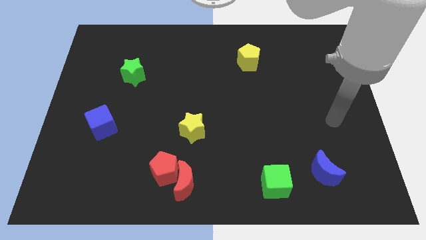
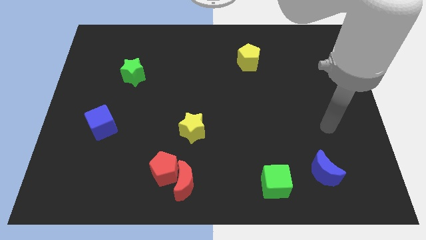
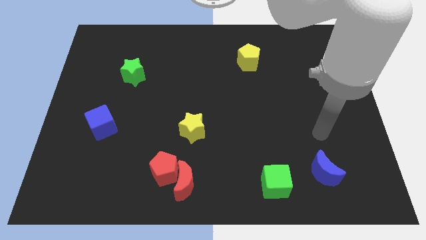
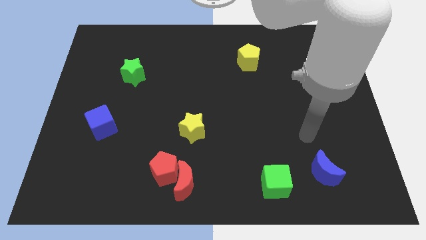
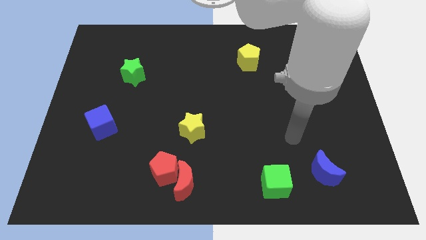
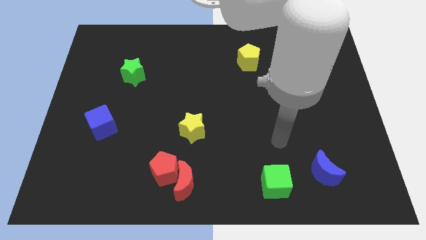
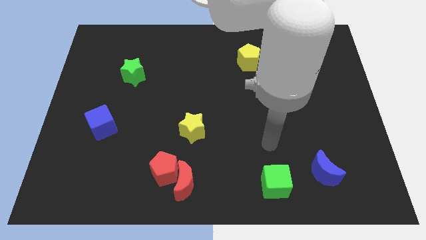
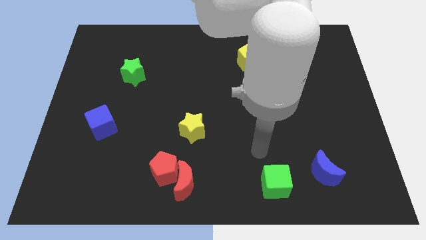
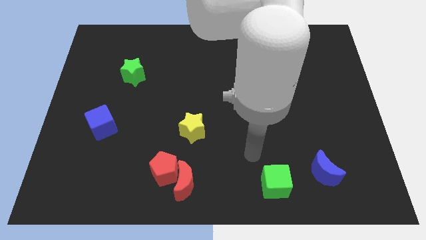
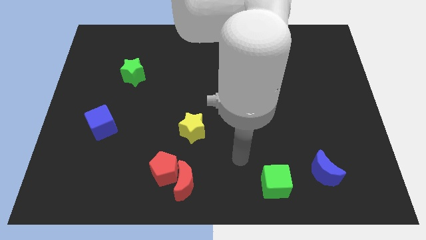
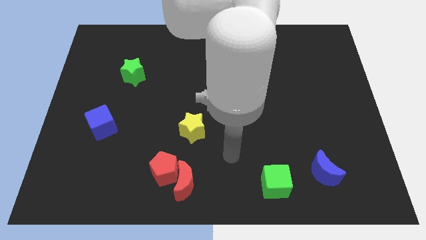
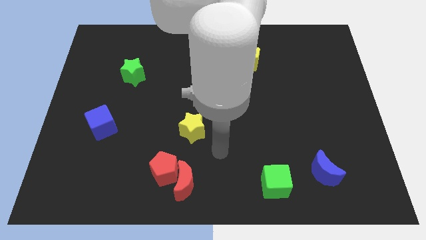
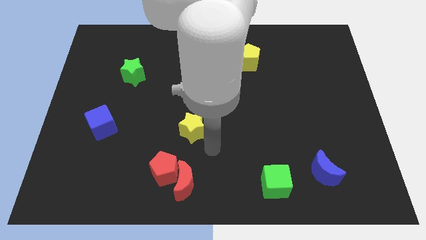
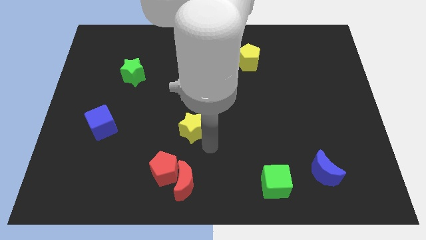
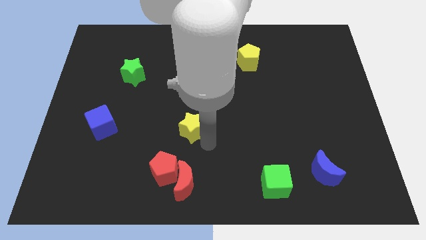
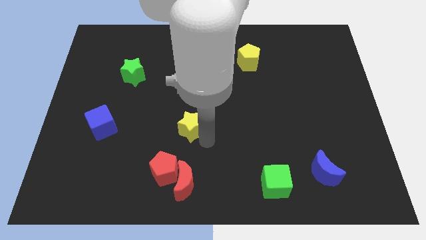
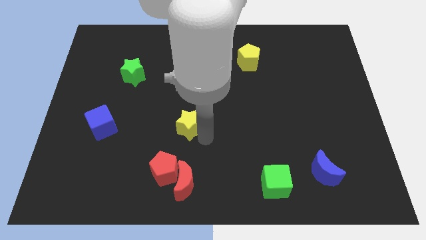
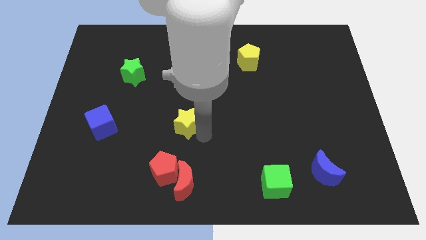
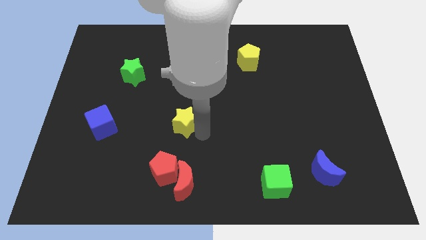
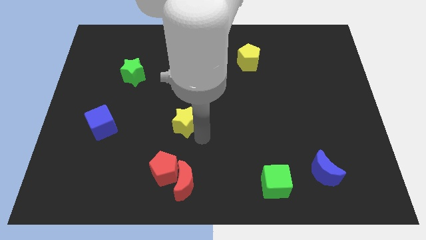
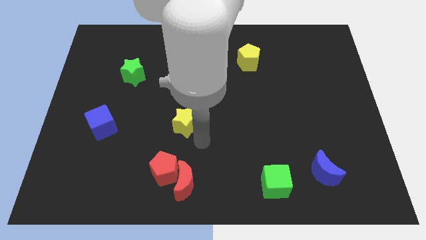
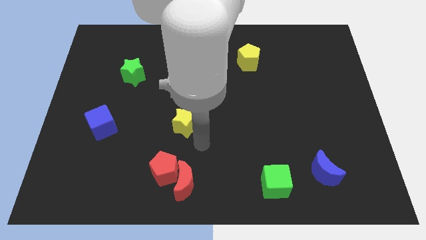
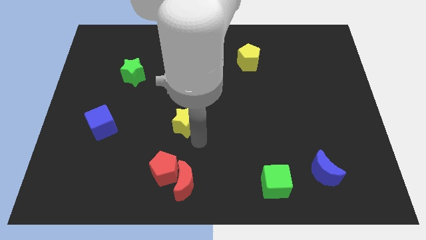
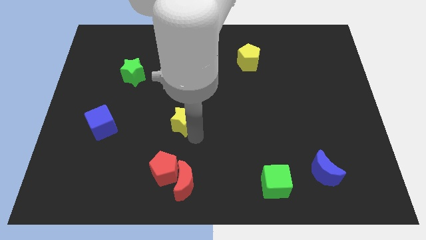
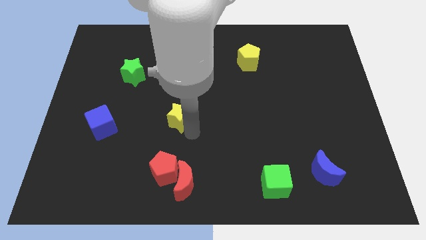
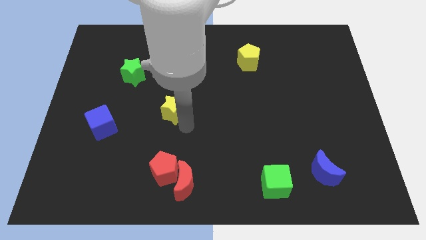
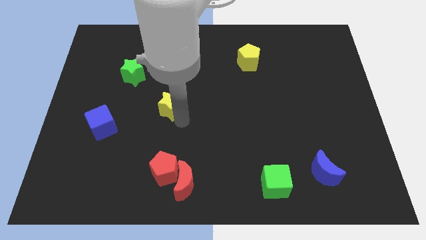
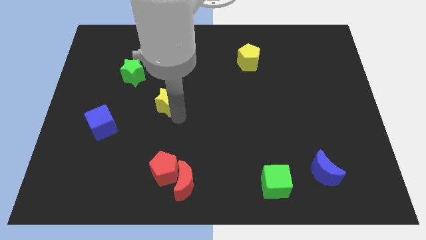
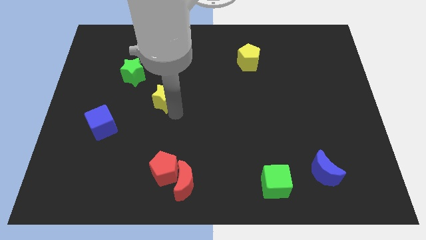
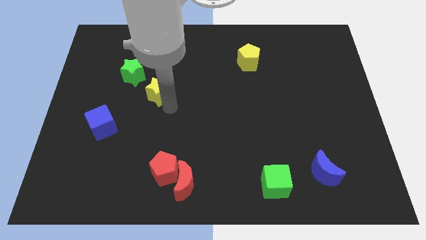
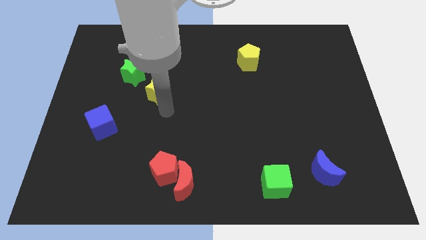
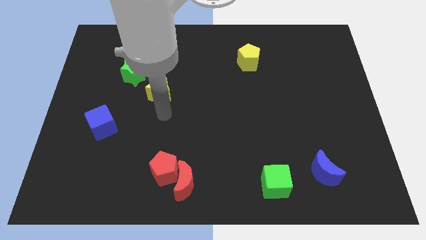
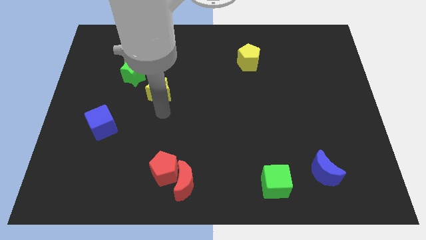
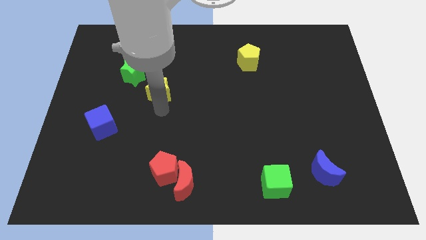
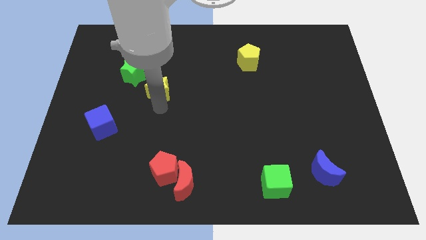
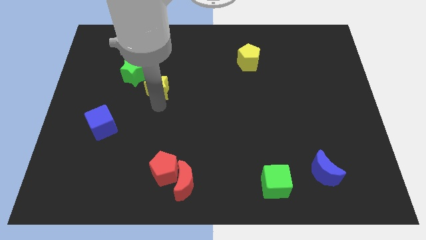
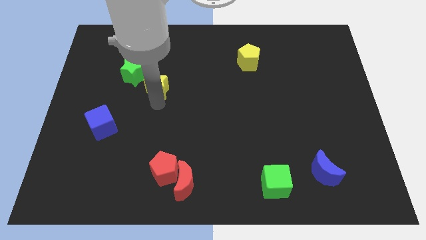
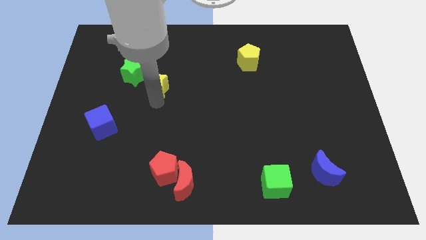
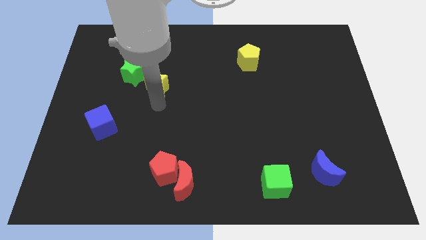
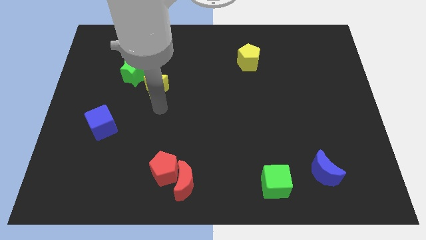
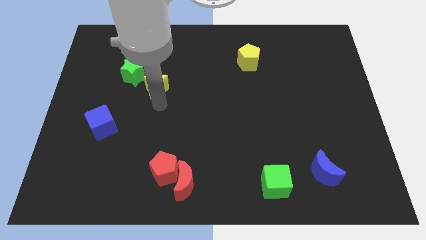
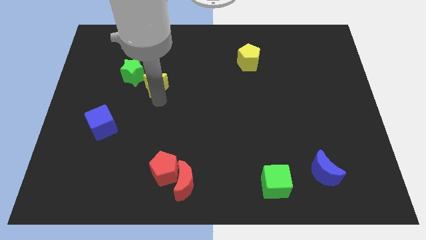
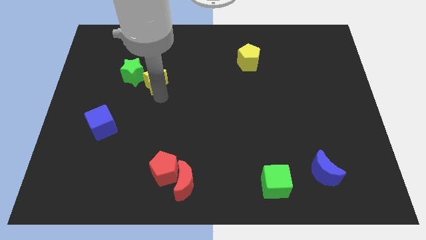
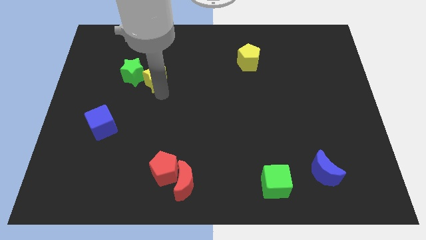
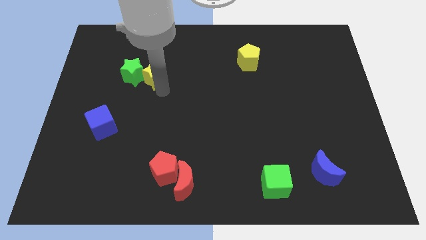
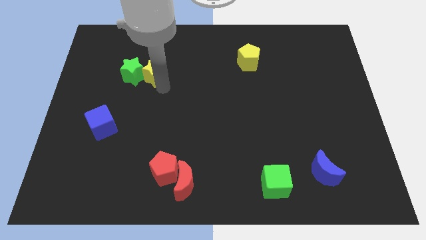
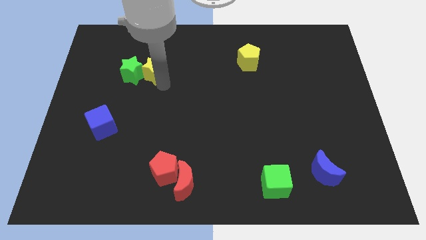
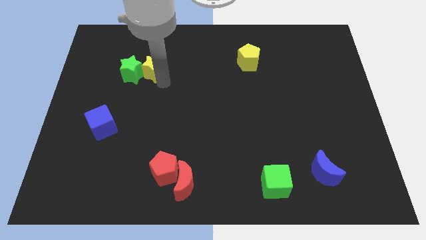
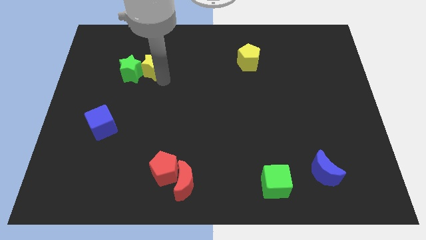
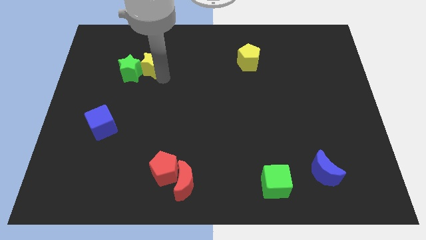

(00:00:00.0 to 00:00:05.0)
push the yellow star diagonally up and to the left

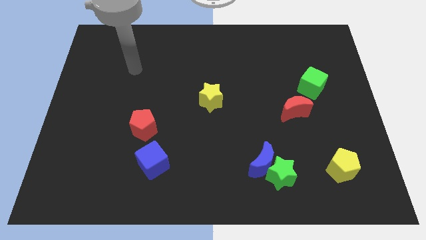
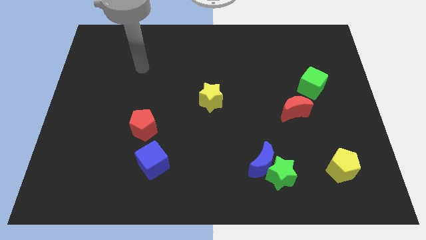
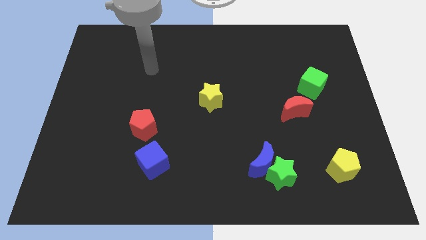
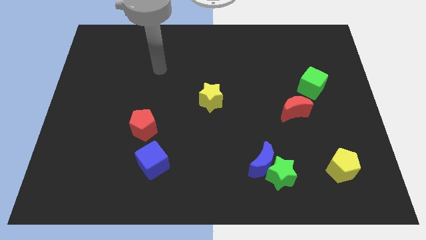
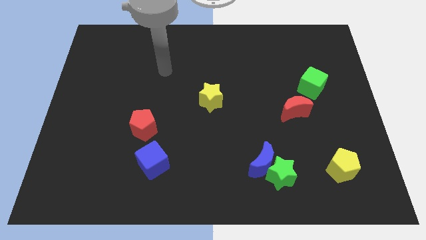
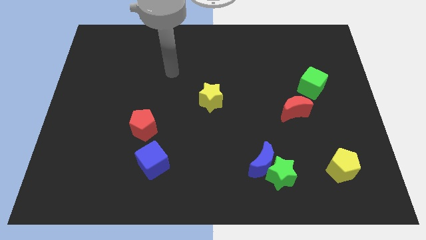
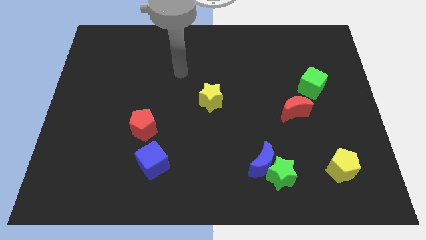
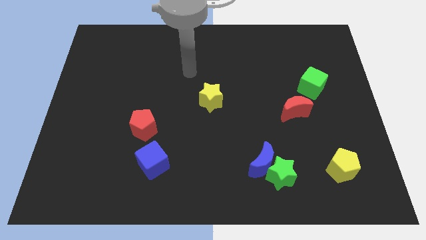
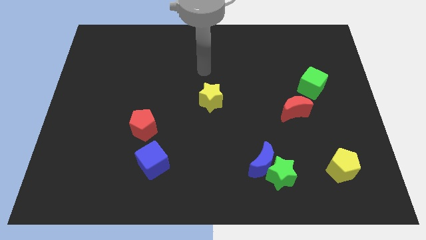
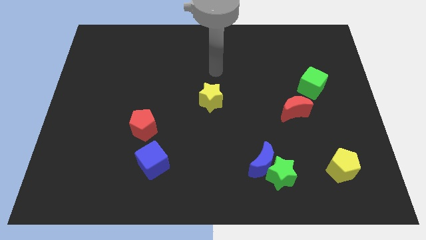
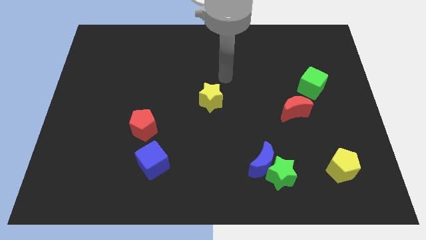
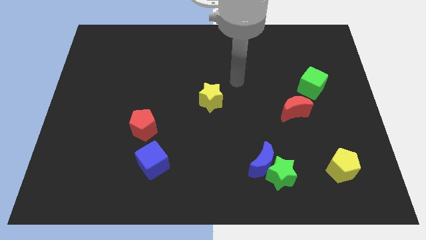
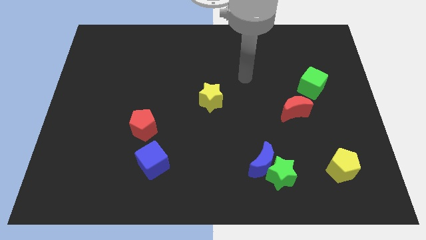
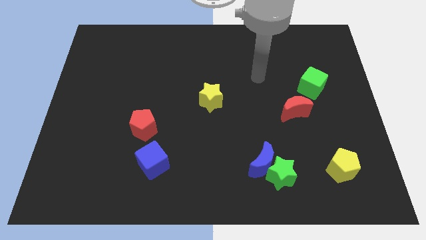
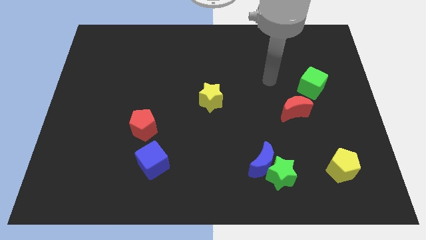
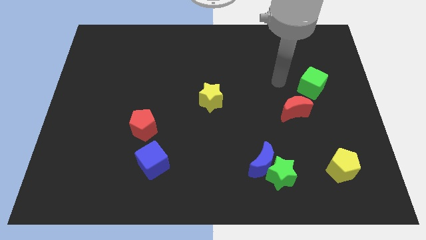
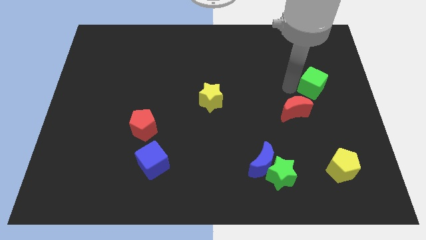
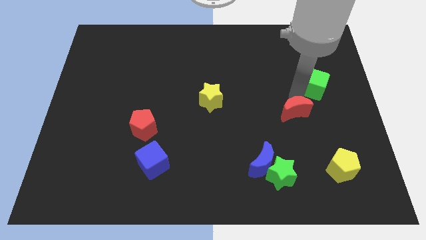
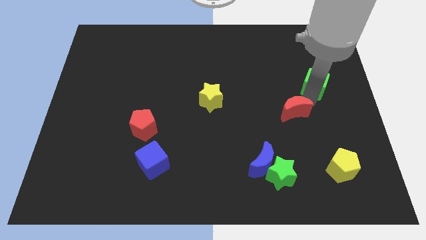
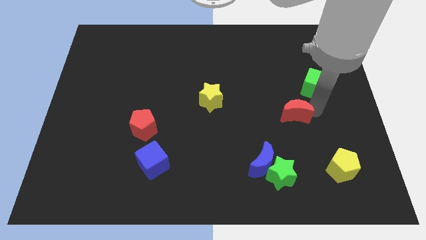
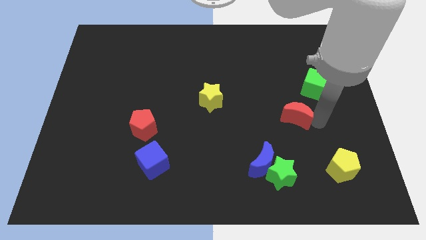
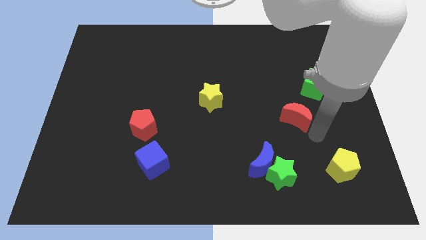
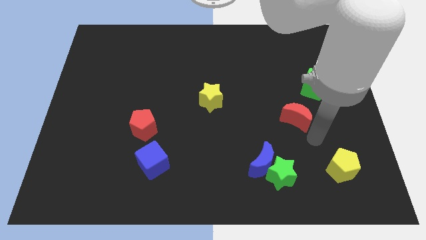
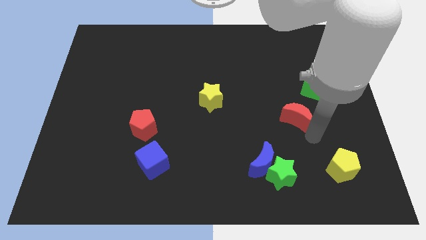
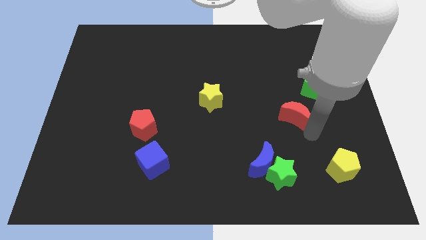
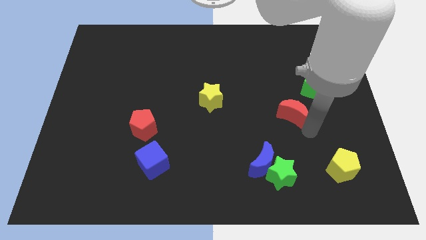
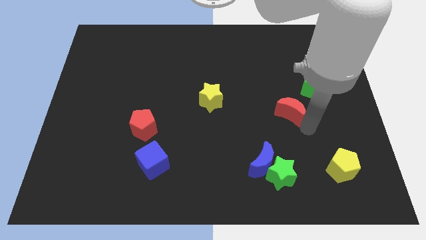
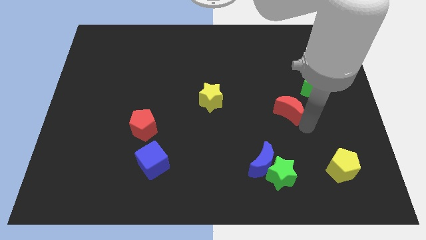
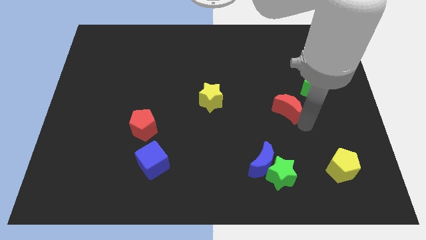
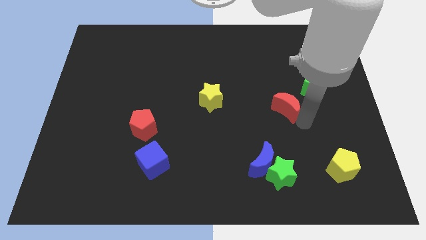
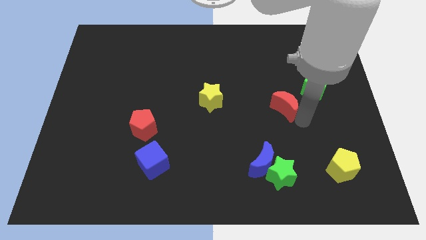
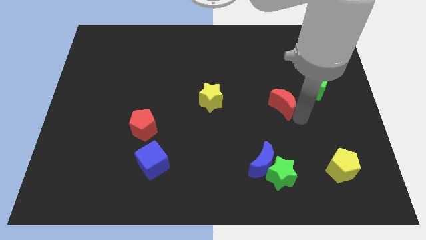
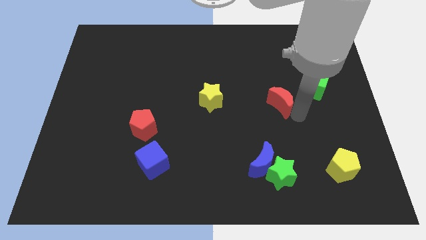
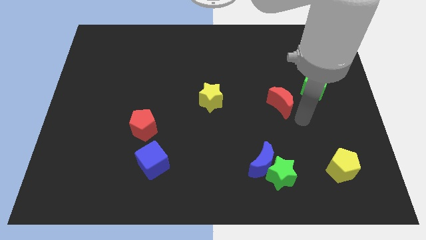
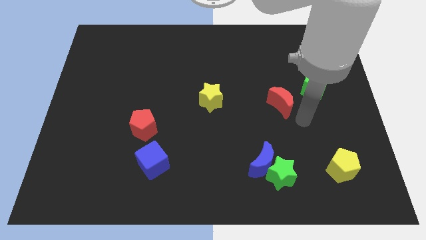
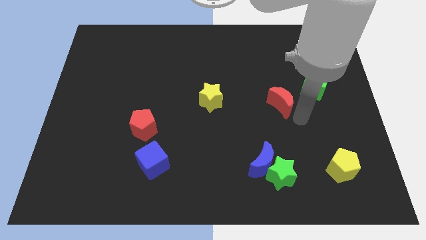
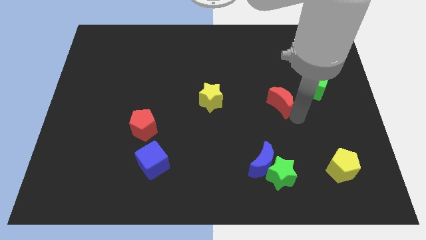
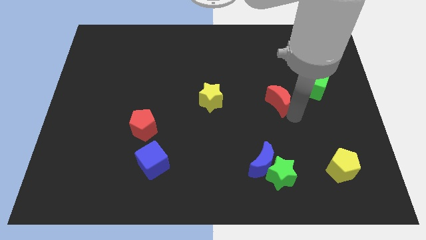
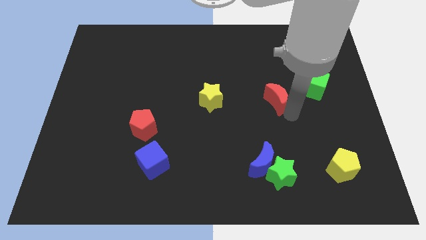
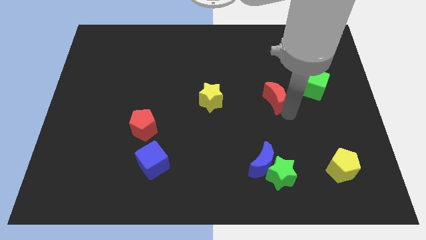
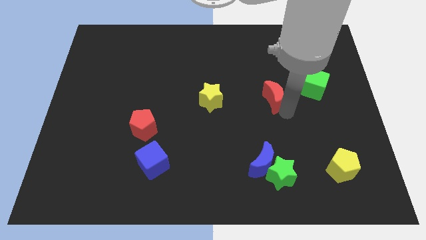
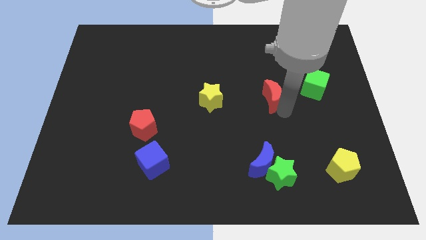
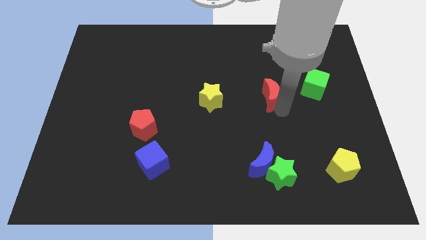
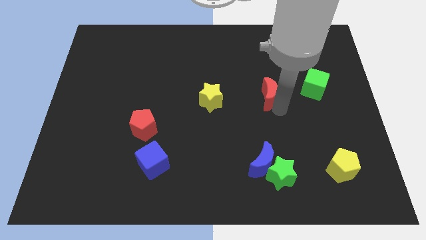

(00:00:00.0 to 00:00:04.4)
push the red moon a little diagonally upwards and to the left
